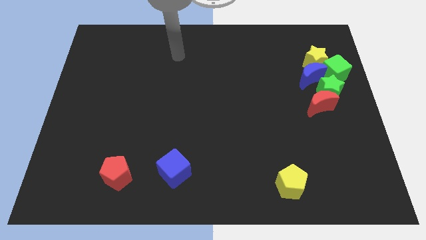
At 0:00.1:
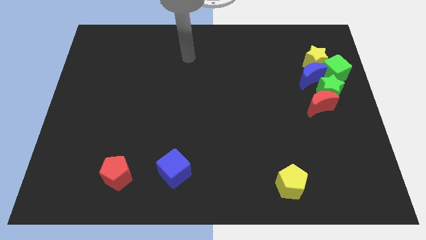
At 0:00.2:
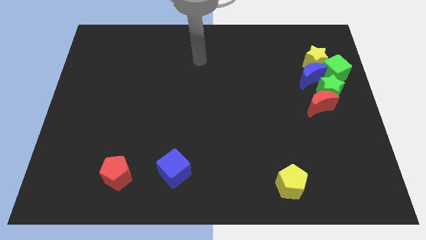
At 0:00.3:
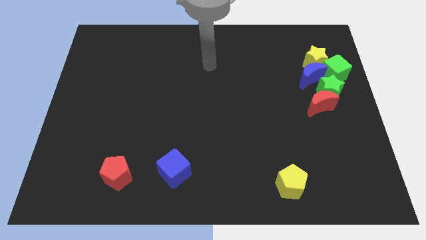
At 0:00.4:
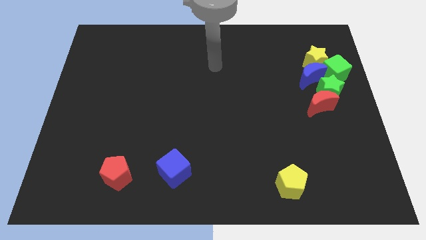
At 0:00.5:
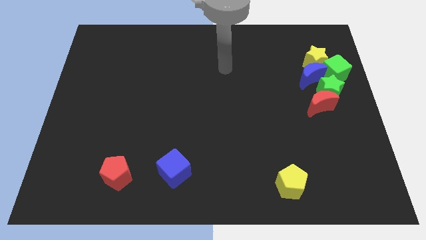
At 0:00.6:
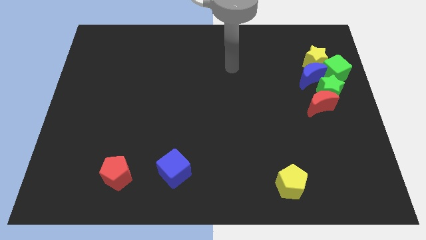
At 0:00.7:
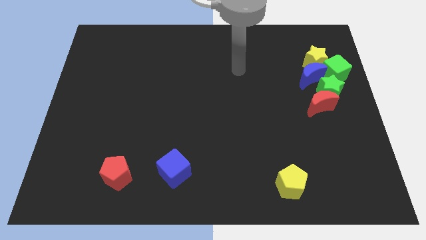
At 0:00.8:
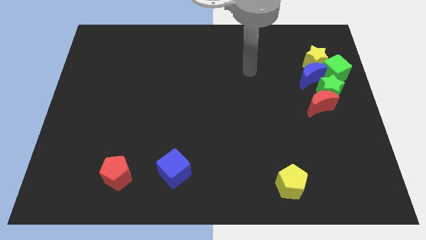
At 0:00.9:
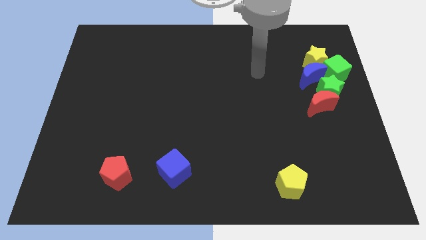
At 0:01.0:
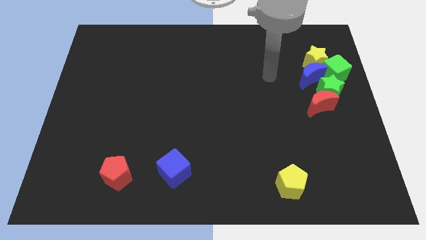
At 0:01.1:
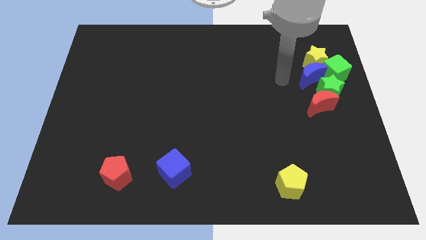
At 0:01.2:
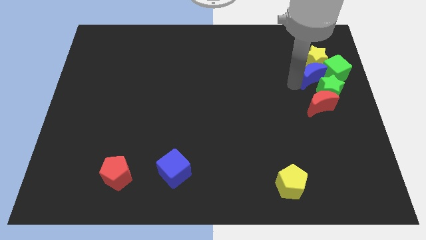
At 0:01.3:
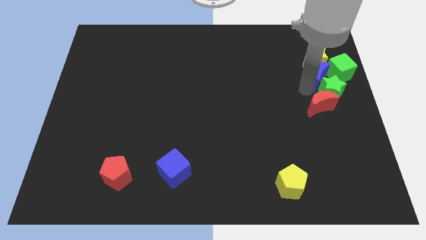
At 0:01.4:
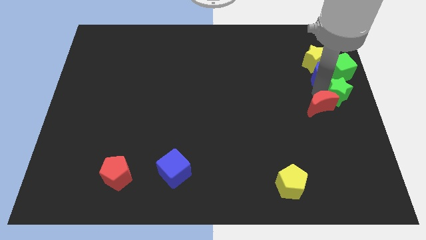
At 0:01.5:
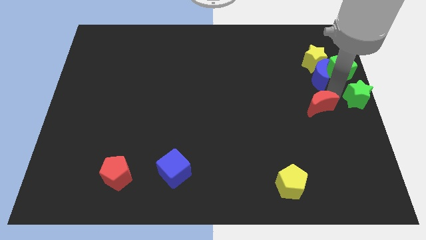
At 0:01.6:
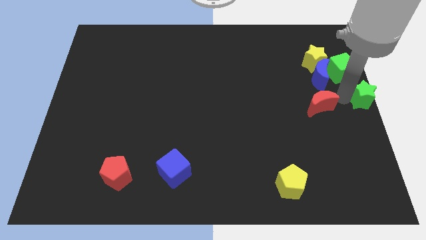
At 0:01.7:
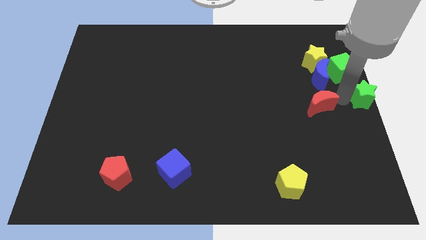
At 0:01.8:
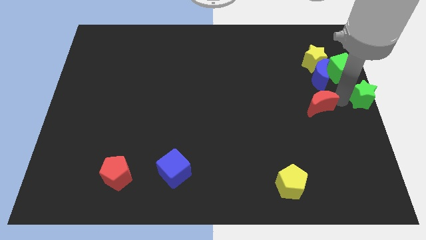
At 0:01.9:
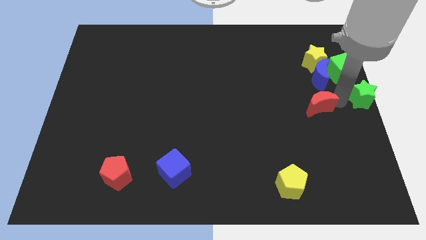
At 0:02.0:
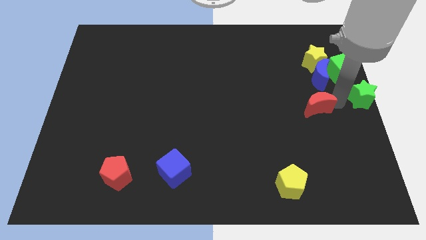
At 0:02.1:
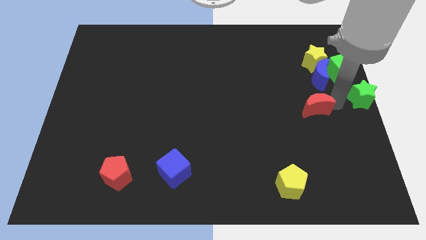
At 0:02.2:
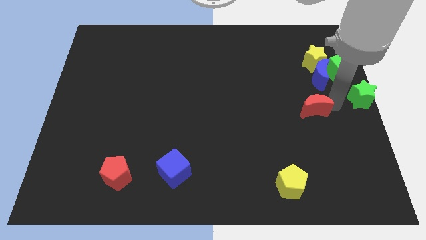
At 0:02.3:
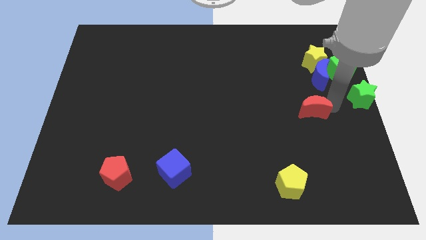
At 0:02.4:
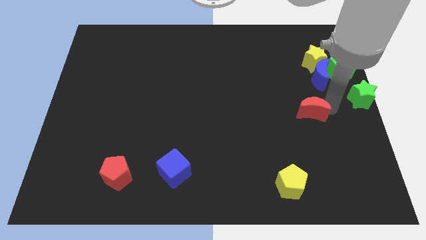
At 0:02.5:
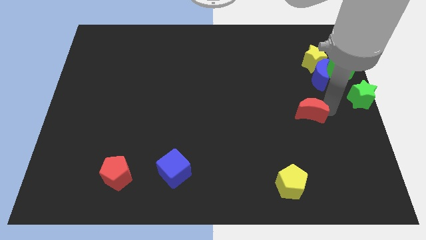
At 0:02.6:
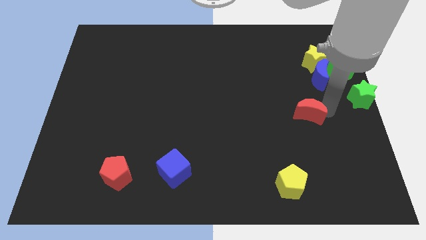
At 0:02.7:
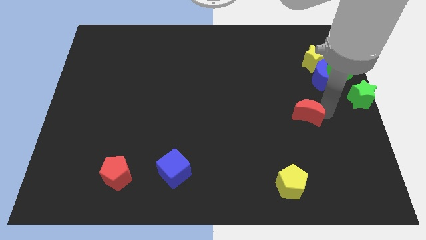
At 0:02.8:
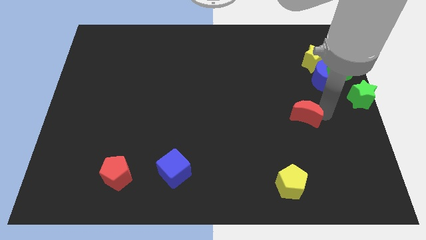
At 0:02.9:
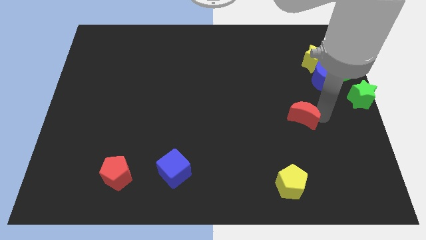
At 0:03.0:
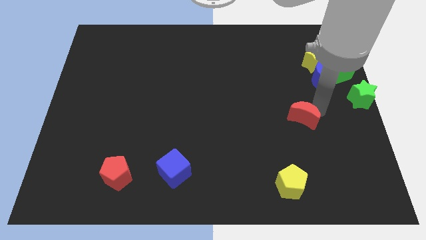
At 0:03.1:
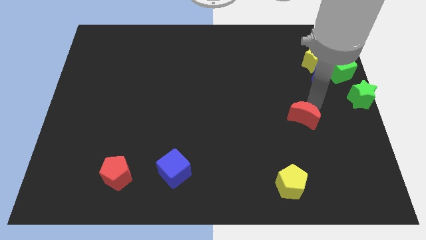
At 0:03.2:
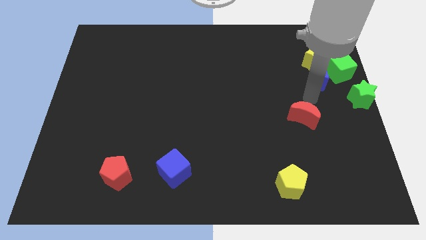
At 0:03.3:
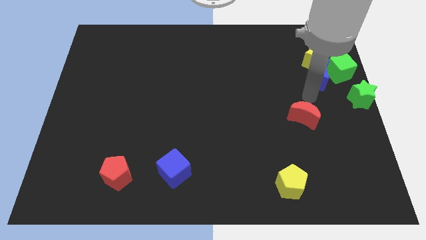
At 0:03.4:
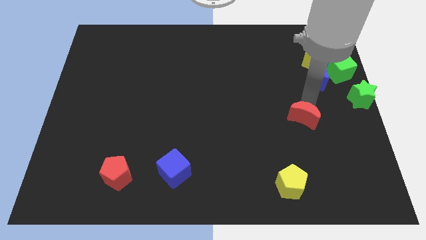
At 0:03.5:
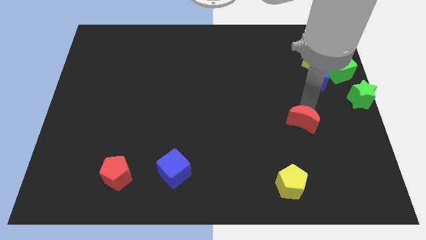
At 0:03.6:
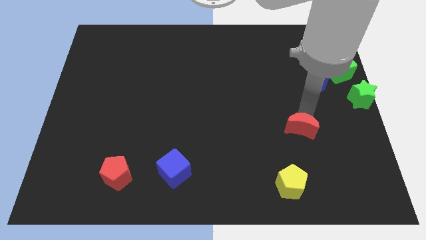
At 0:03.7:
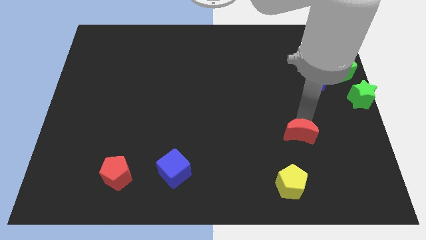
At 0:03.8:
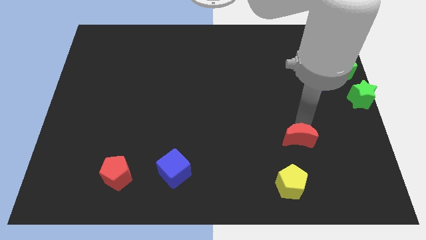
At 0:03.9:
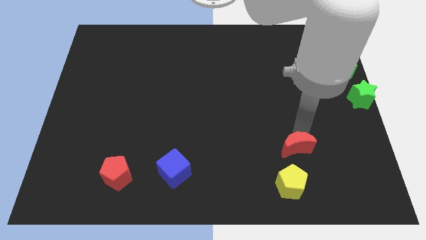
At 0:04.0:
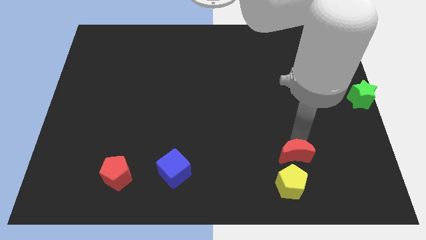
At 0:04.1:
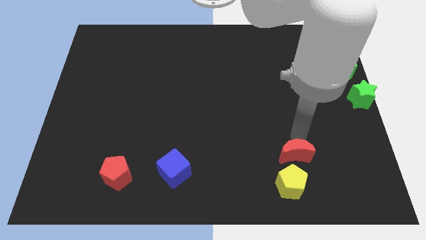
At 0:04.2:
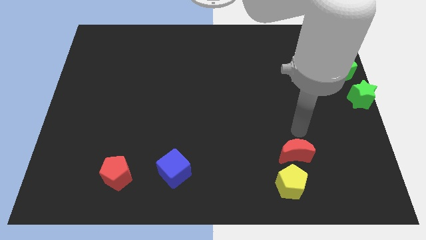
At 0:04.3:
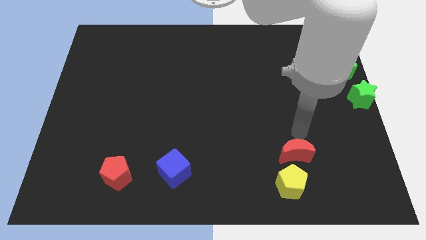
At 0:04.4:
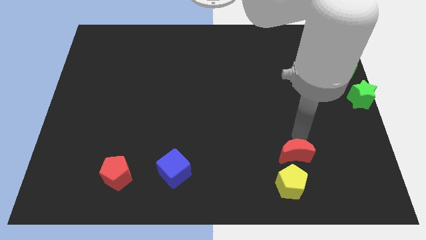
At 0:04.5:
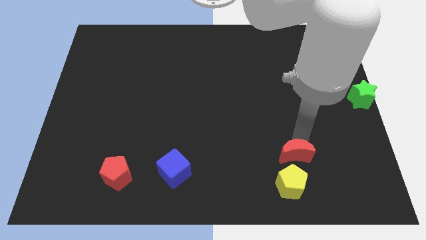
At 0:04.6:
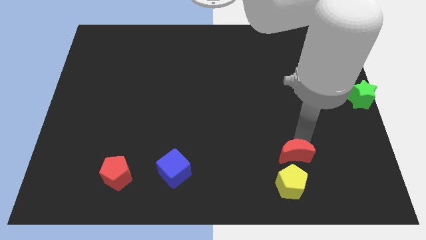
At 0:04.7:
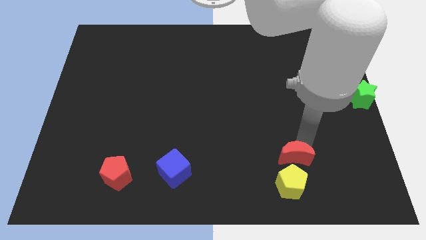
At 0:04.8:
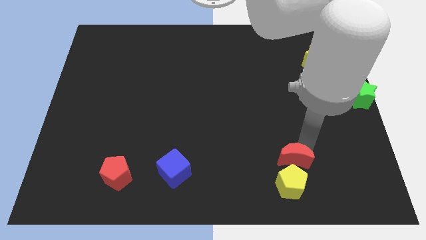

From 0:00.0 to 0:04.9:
slide the red moon close to the yellow pentagon

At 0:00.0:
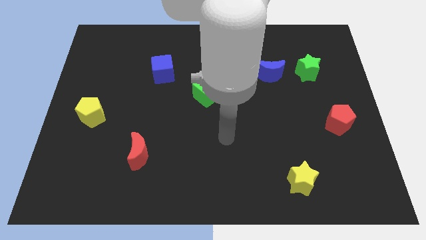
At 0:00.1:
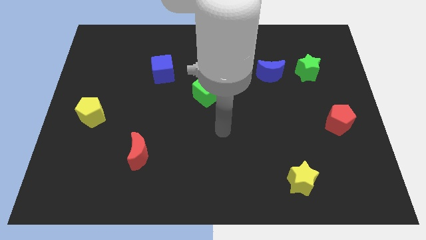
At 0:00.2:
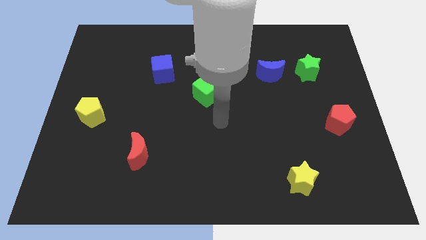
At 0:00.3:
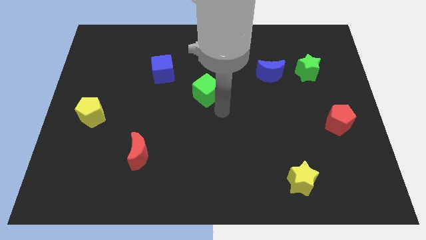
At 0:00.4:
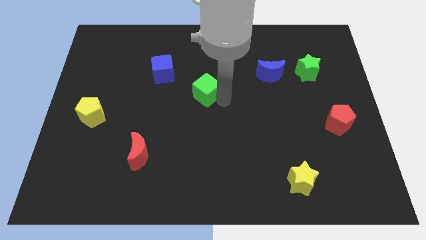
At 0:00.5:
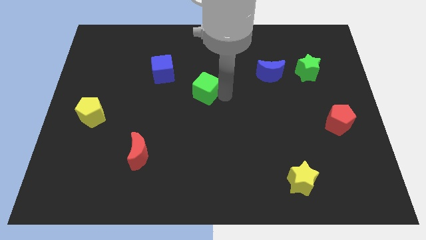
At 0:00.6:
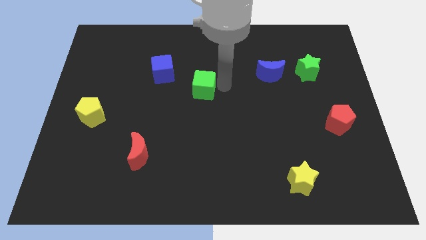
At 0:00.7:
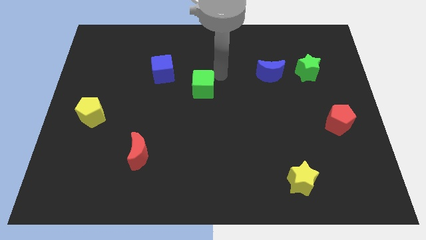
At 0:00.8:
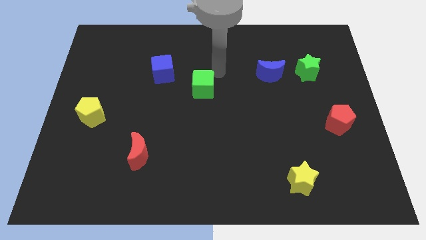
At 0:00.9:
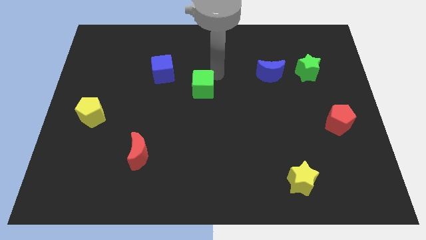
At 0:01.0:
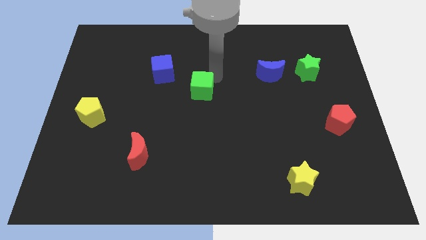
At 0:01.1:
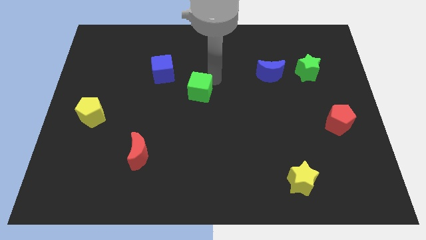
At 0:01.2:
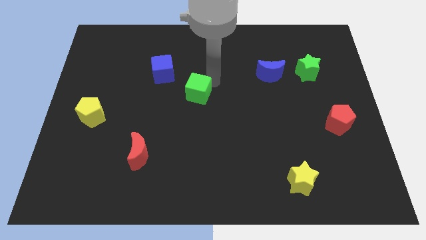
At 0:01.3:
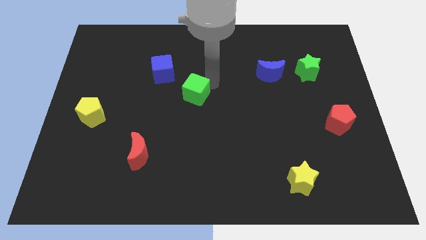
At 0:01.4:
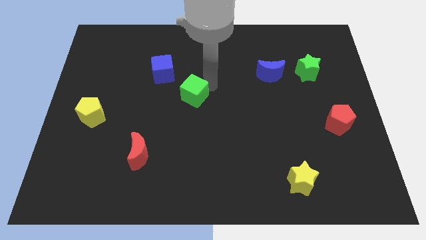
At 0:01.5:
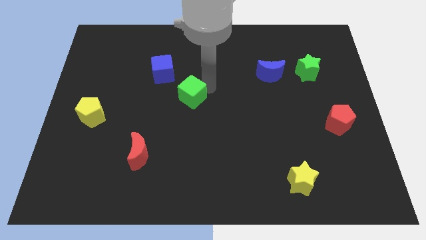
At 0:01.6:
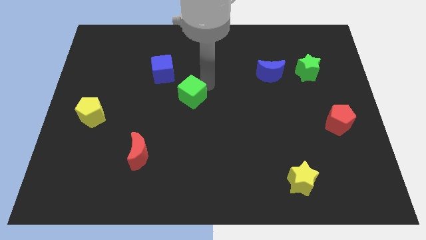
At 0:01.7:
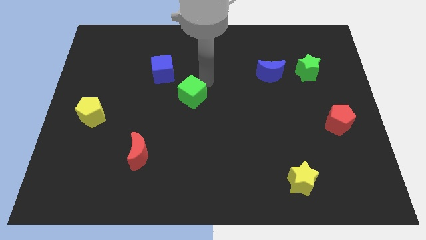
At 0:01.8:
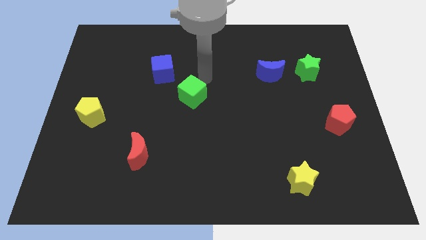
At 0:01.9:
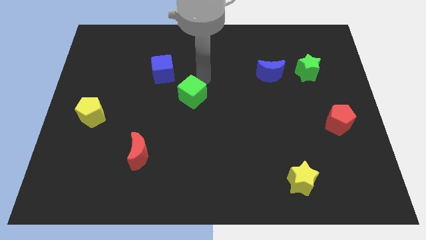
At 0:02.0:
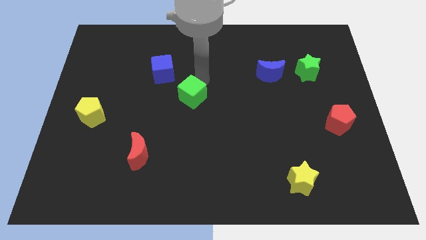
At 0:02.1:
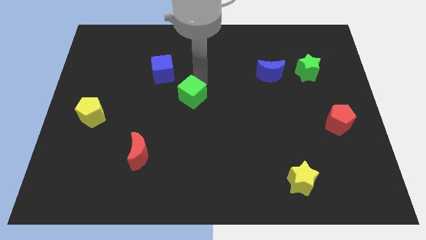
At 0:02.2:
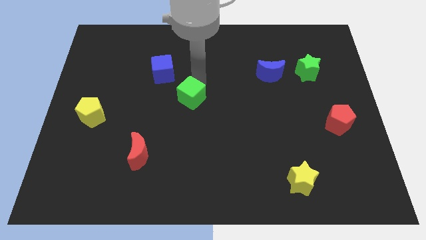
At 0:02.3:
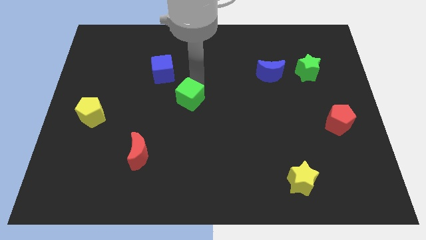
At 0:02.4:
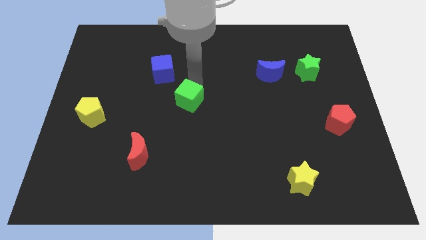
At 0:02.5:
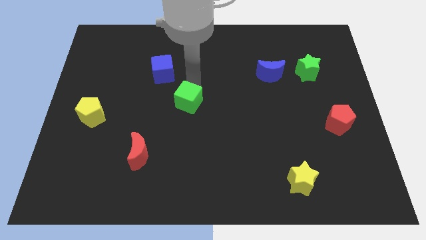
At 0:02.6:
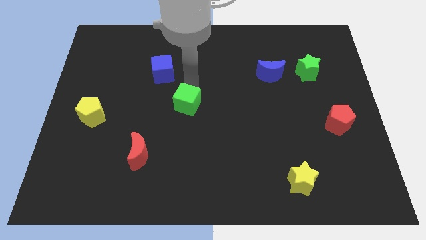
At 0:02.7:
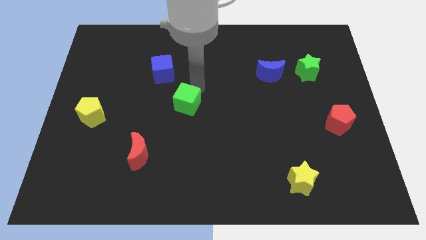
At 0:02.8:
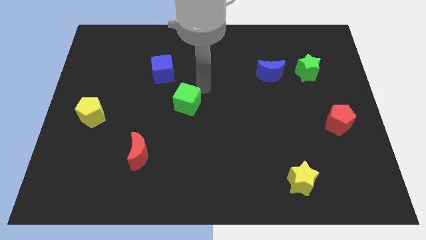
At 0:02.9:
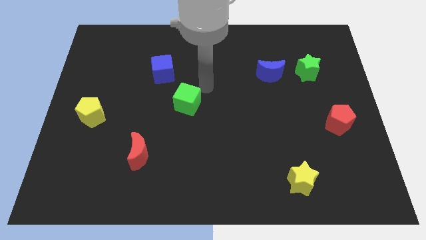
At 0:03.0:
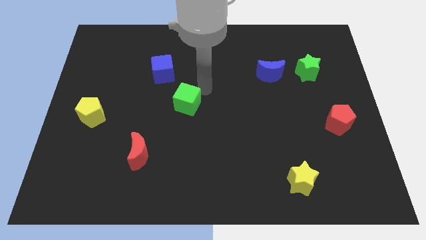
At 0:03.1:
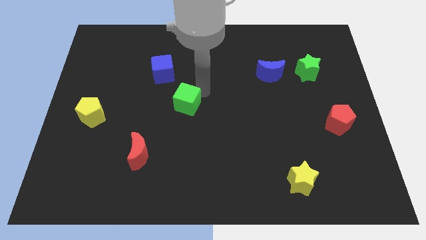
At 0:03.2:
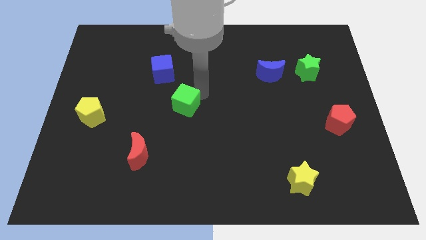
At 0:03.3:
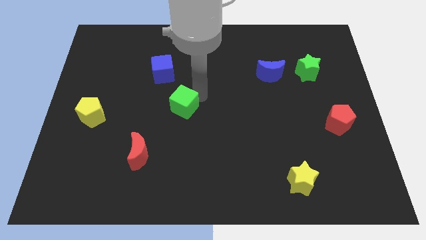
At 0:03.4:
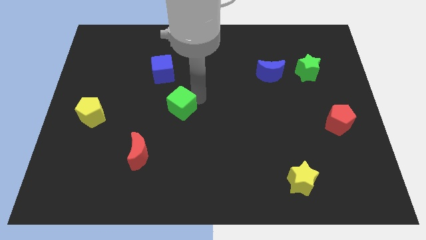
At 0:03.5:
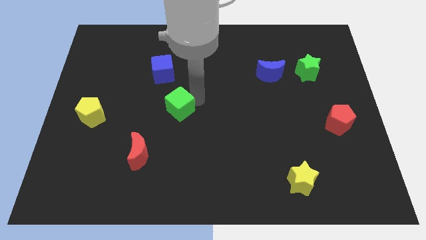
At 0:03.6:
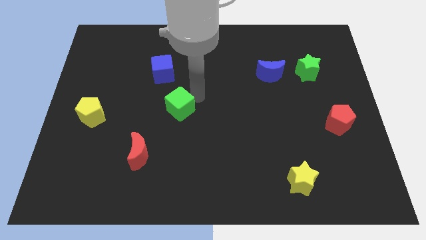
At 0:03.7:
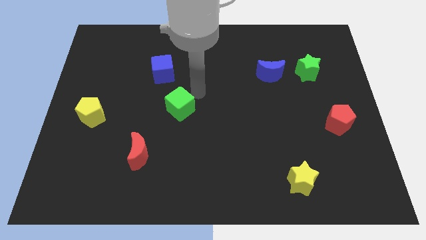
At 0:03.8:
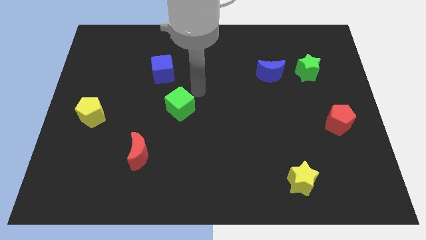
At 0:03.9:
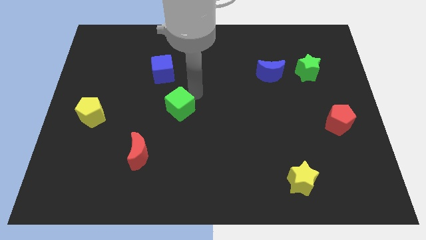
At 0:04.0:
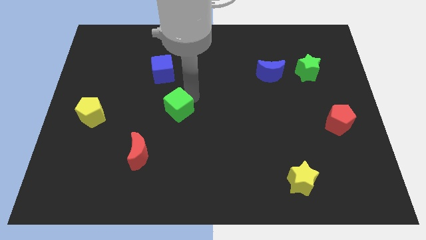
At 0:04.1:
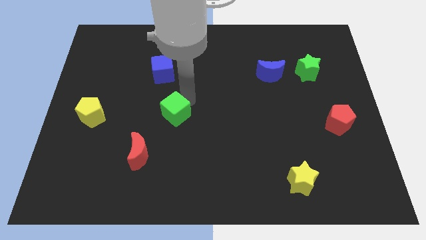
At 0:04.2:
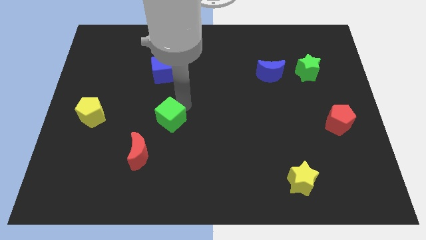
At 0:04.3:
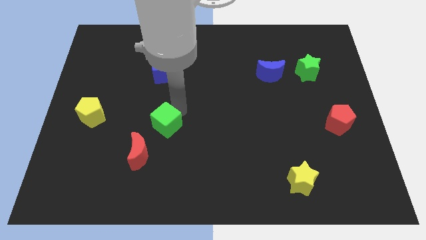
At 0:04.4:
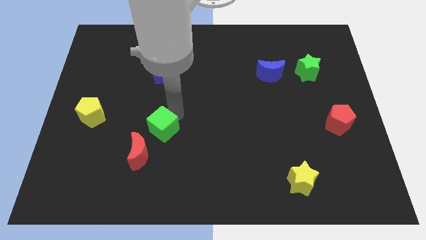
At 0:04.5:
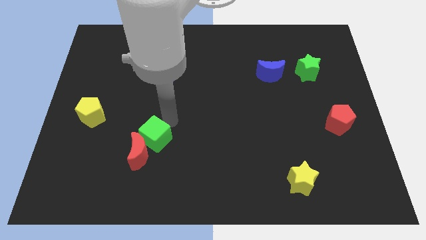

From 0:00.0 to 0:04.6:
move the green cube close to the red moon
